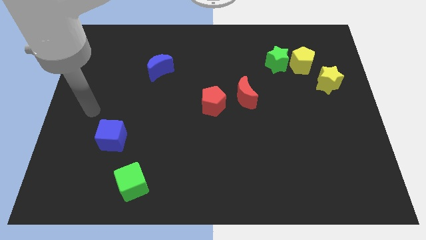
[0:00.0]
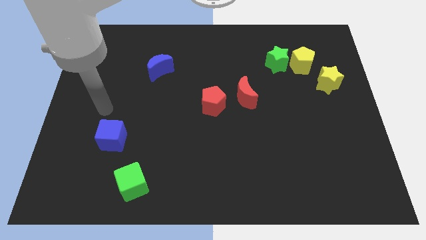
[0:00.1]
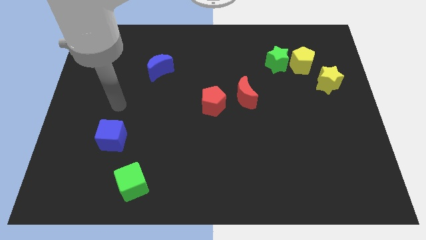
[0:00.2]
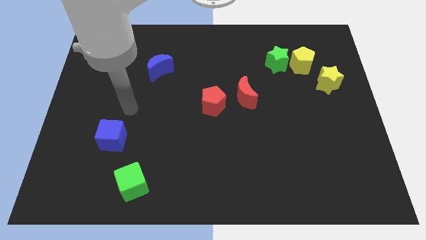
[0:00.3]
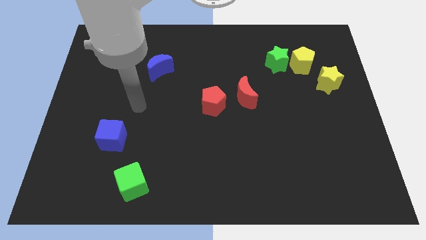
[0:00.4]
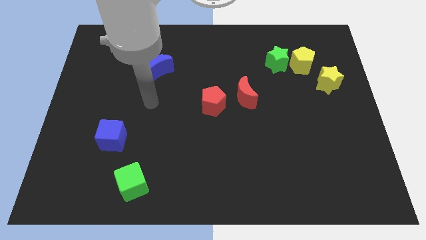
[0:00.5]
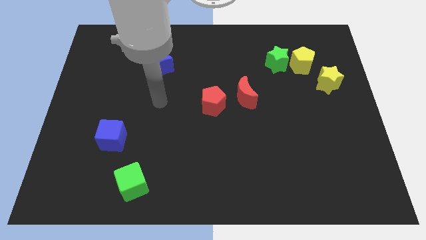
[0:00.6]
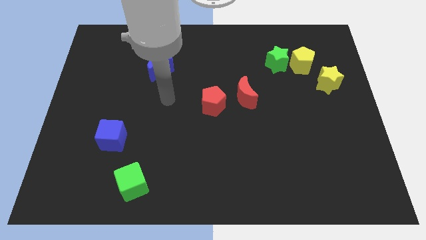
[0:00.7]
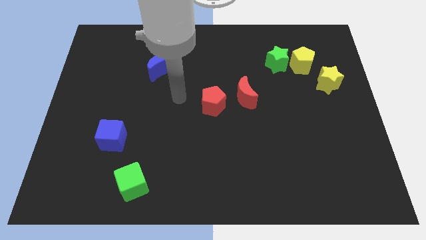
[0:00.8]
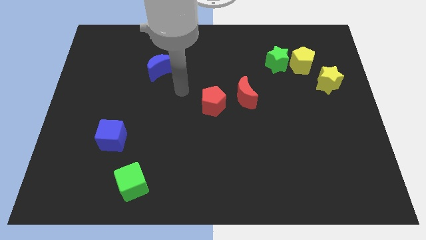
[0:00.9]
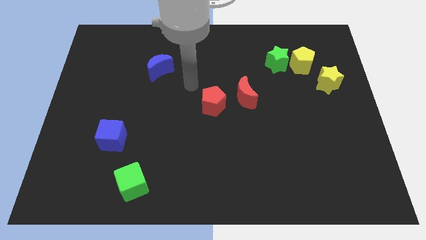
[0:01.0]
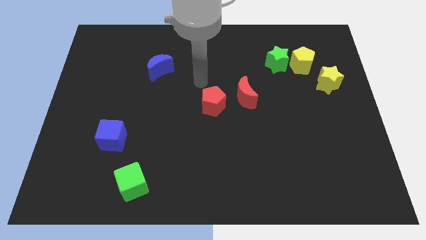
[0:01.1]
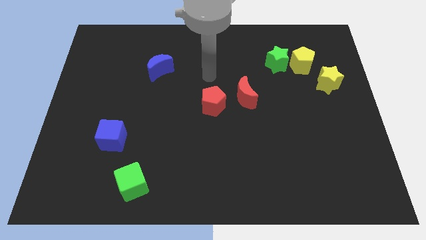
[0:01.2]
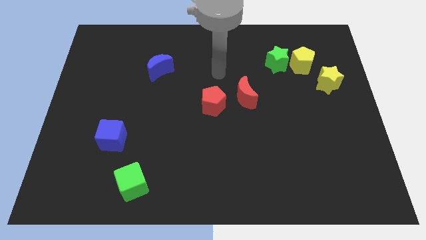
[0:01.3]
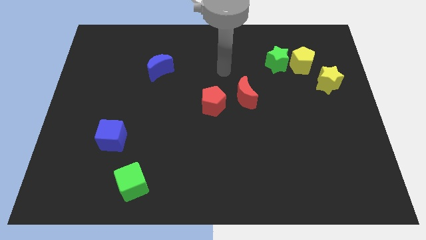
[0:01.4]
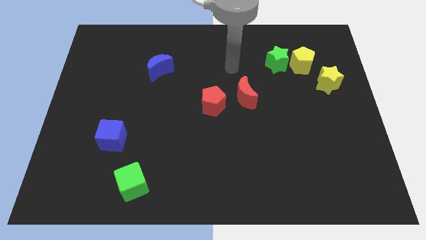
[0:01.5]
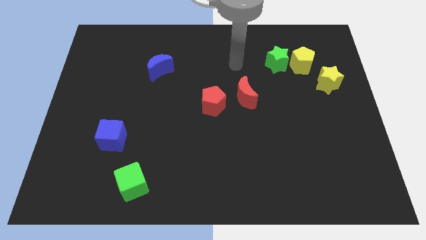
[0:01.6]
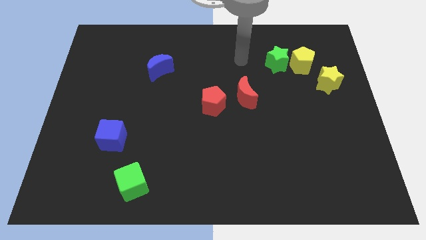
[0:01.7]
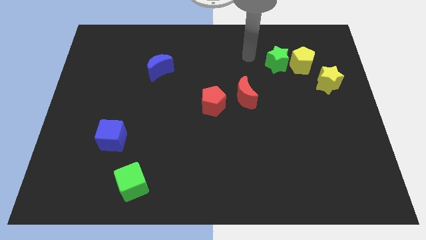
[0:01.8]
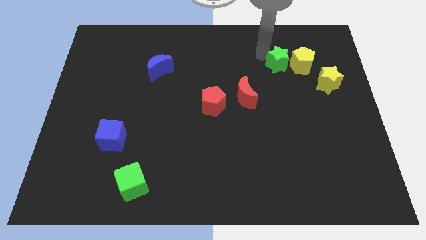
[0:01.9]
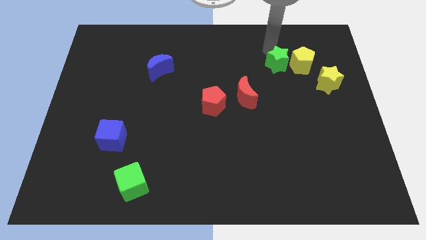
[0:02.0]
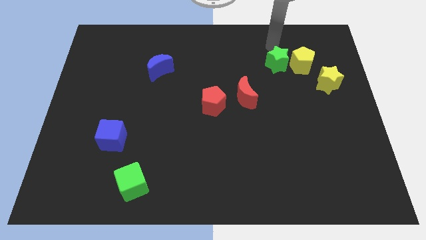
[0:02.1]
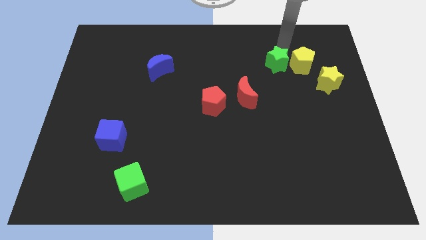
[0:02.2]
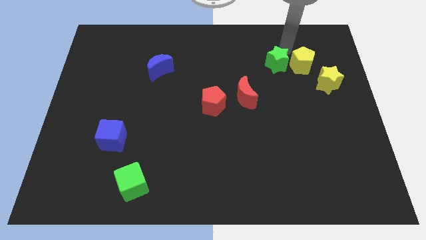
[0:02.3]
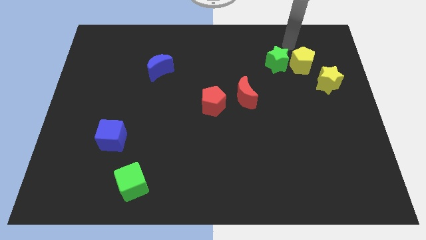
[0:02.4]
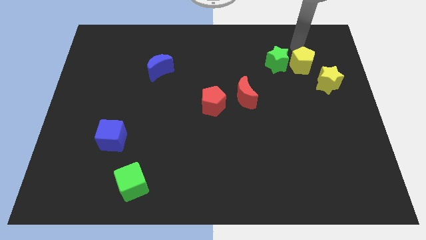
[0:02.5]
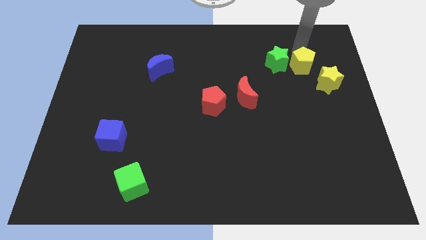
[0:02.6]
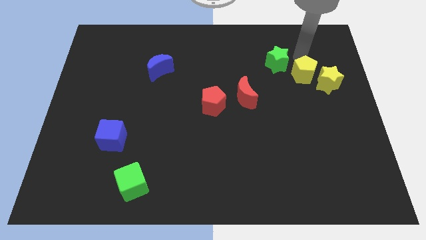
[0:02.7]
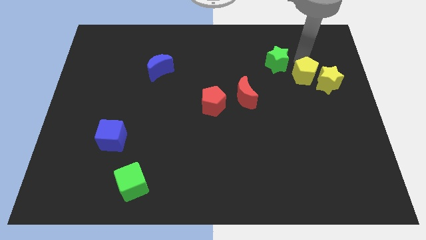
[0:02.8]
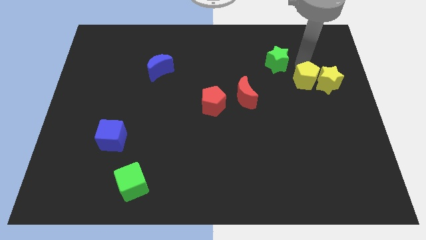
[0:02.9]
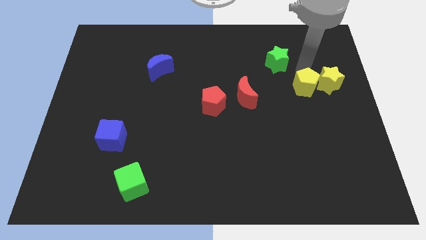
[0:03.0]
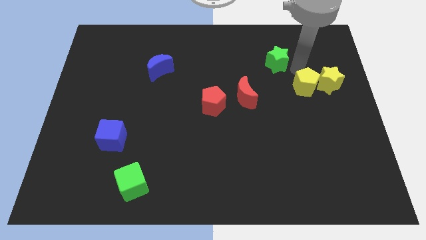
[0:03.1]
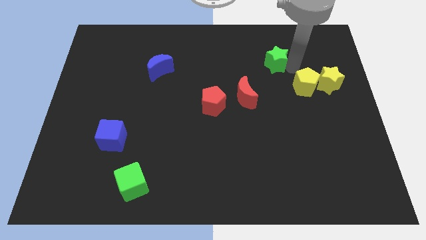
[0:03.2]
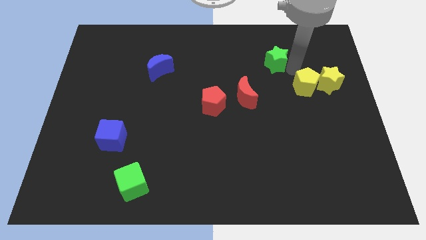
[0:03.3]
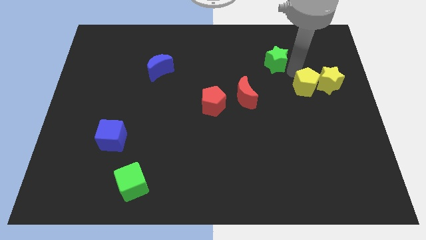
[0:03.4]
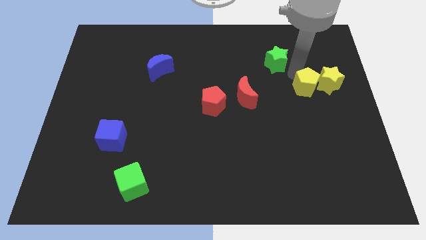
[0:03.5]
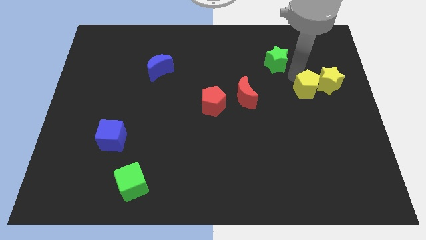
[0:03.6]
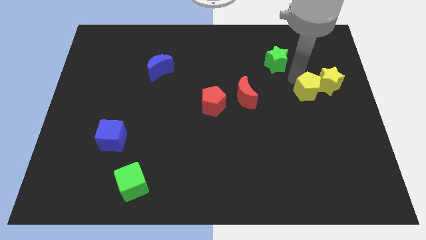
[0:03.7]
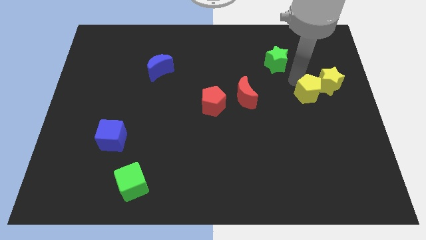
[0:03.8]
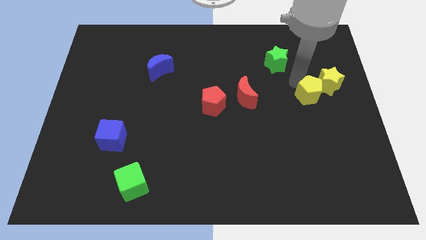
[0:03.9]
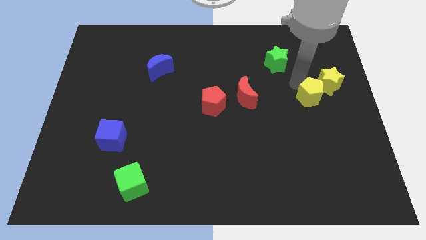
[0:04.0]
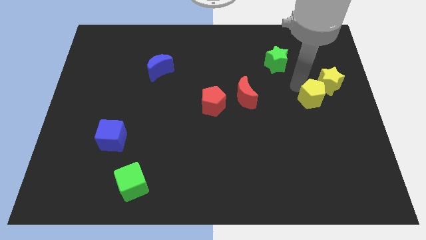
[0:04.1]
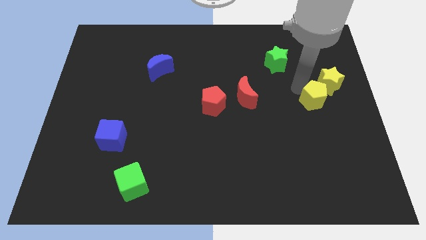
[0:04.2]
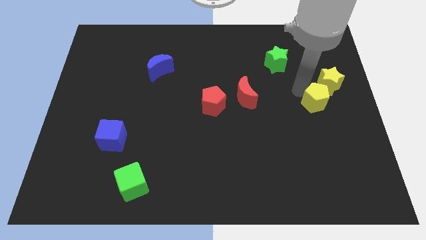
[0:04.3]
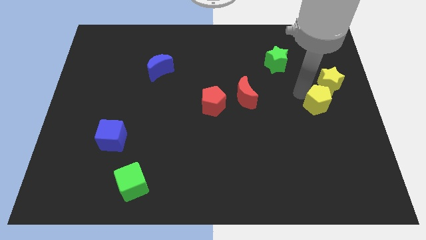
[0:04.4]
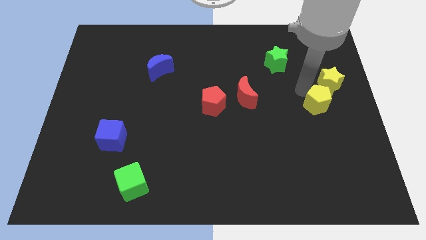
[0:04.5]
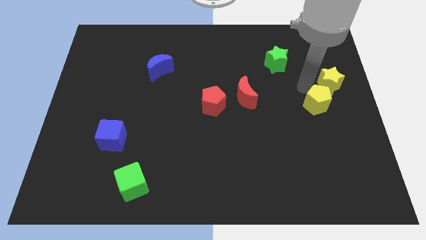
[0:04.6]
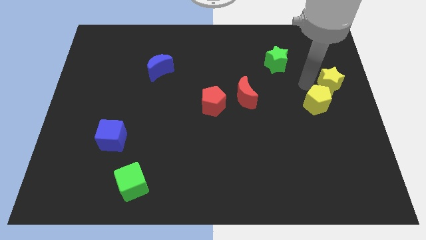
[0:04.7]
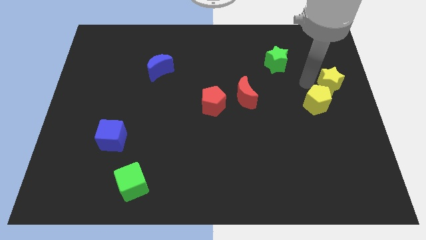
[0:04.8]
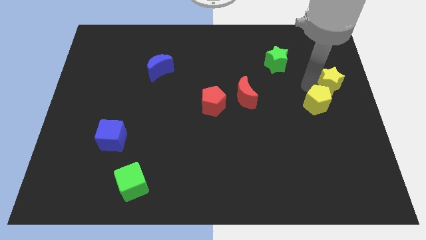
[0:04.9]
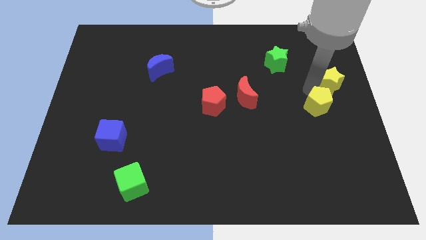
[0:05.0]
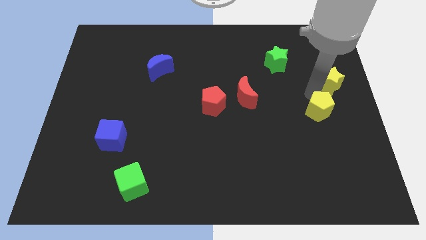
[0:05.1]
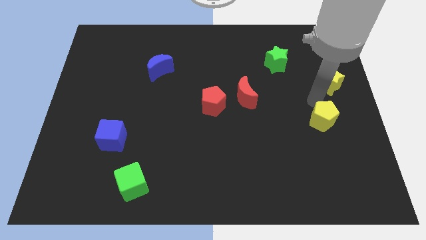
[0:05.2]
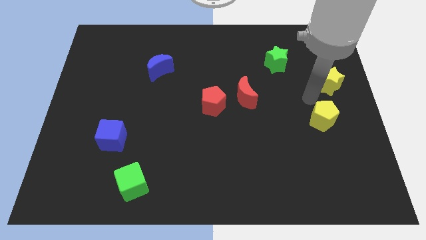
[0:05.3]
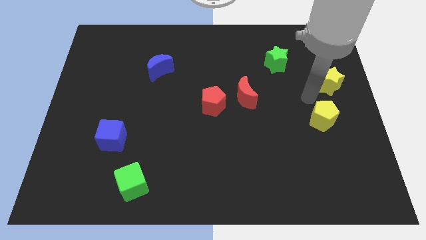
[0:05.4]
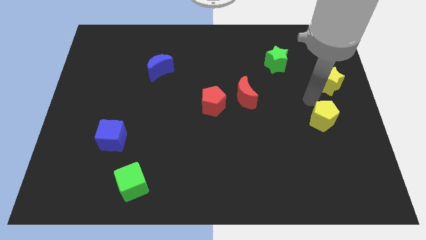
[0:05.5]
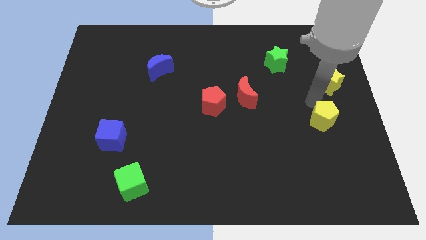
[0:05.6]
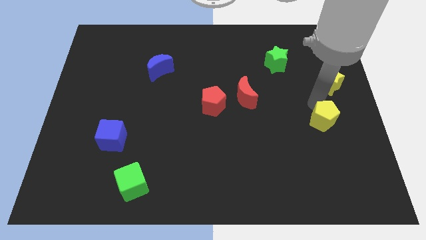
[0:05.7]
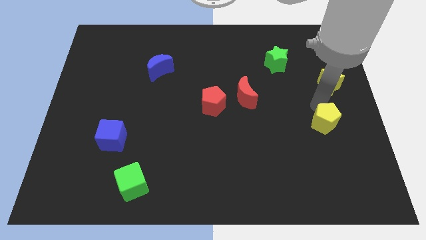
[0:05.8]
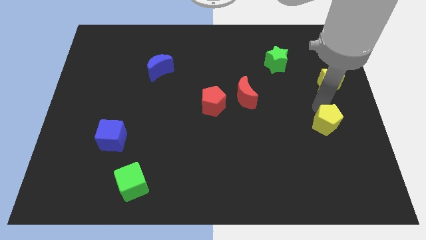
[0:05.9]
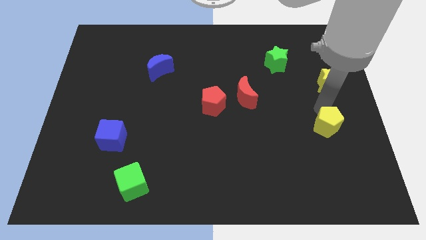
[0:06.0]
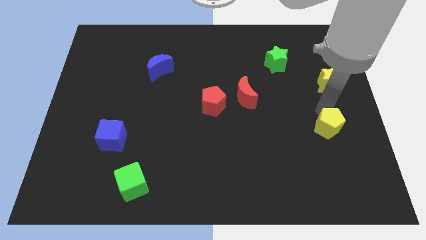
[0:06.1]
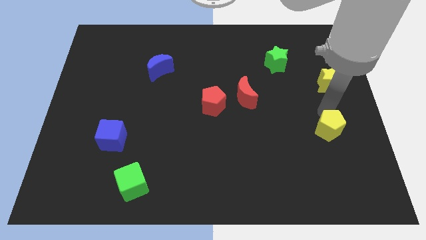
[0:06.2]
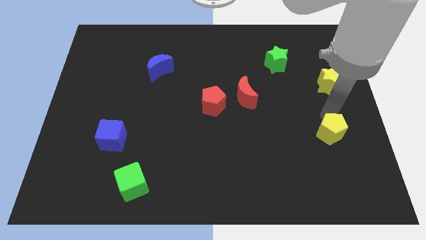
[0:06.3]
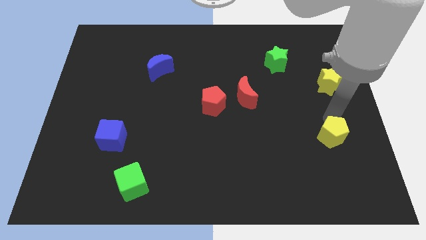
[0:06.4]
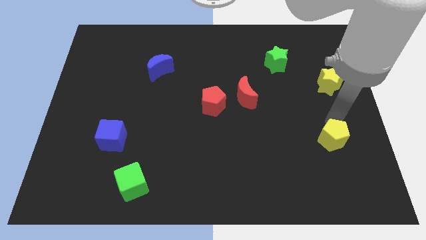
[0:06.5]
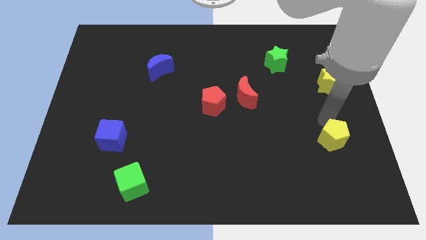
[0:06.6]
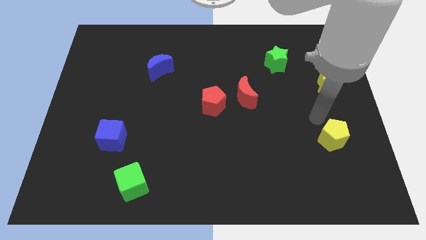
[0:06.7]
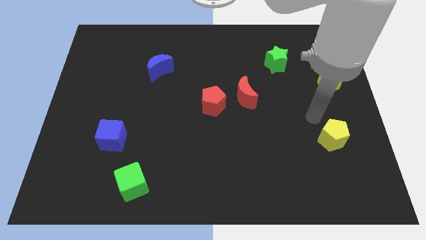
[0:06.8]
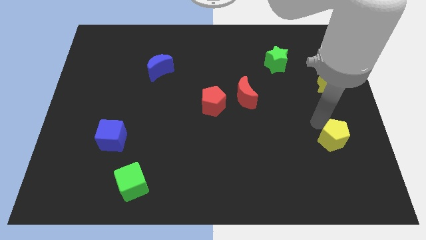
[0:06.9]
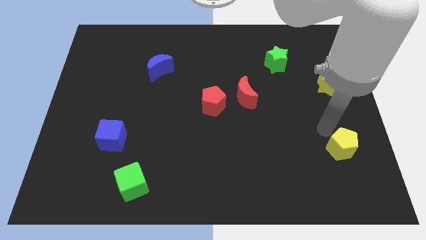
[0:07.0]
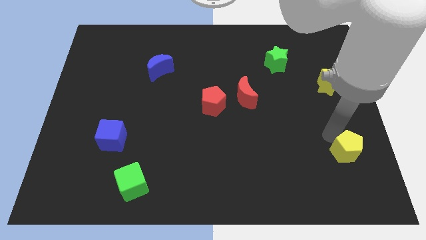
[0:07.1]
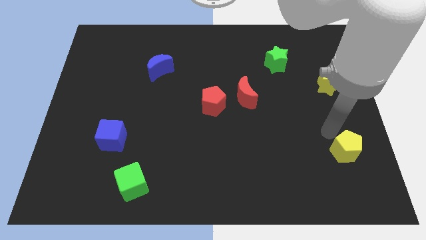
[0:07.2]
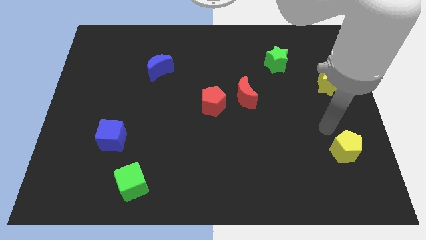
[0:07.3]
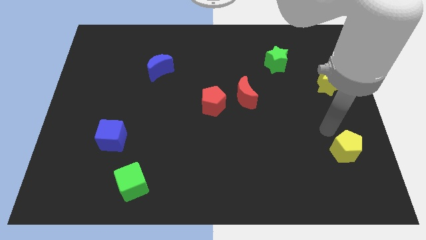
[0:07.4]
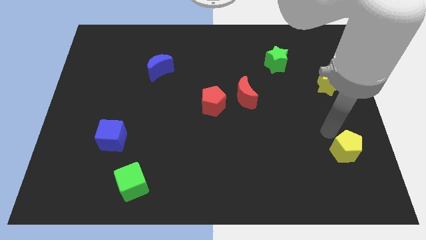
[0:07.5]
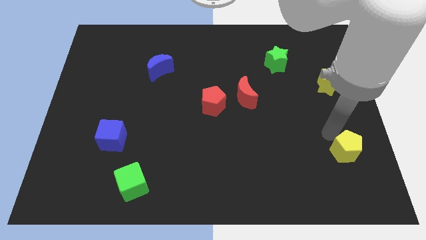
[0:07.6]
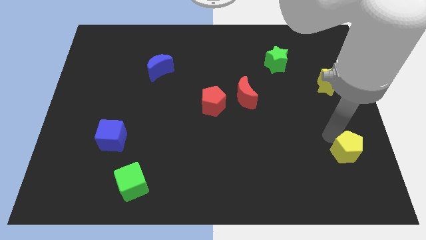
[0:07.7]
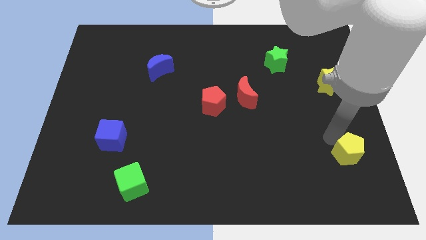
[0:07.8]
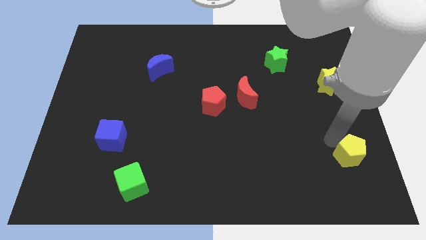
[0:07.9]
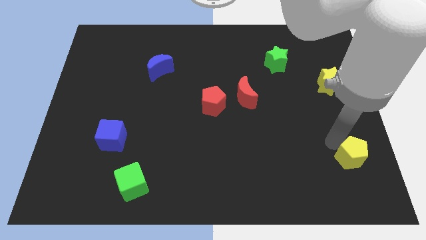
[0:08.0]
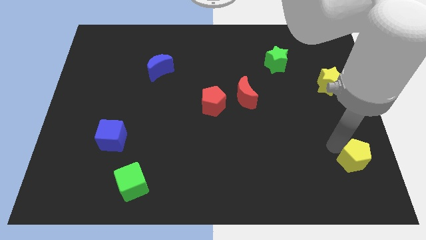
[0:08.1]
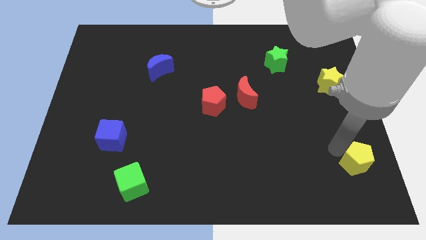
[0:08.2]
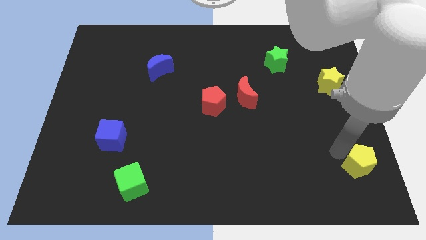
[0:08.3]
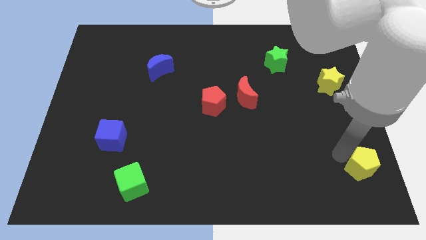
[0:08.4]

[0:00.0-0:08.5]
push the yellow pentagon to the bottom right corner
